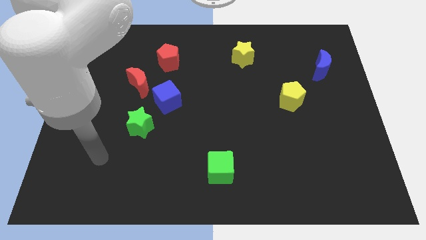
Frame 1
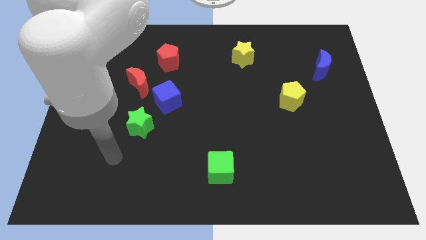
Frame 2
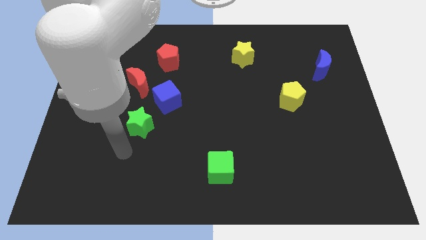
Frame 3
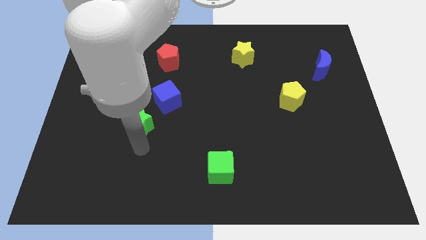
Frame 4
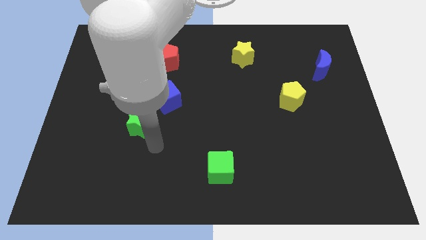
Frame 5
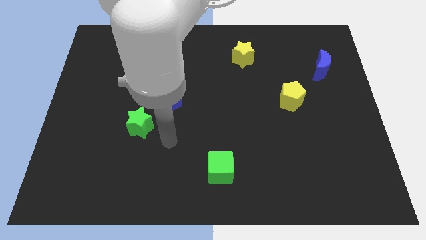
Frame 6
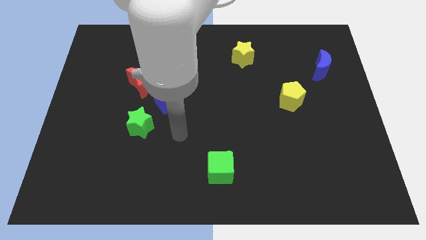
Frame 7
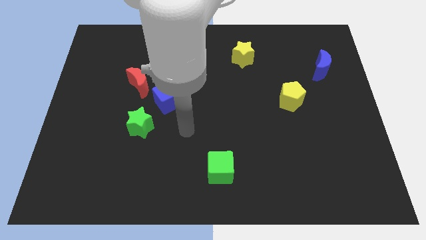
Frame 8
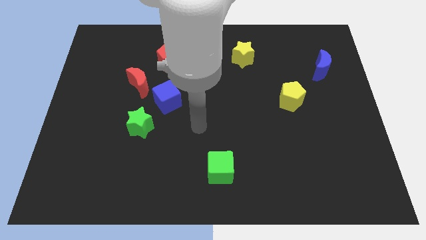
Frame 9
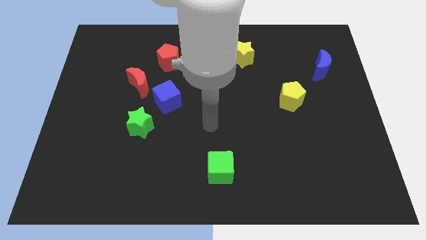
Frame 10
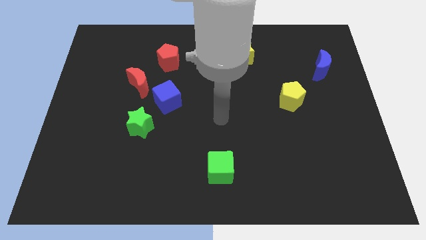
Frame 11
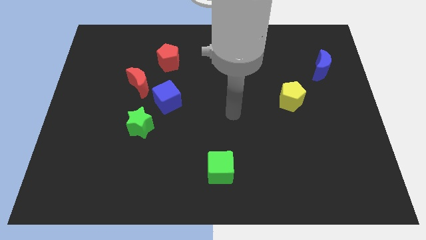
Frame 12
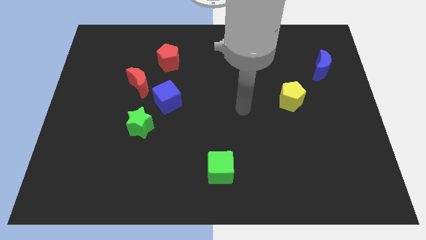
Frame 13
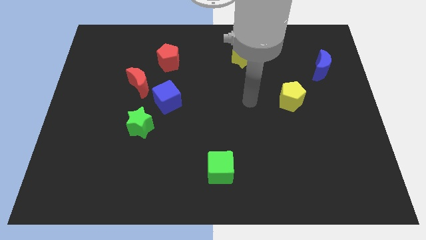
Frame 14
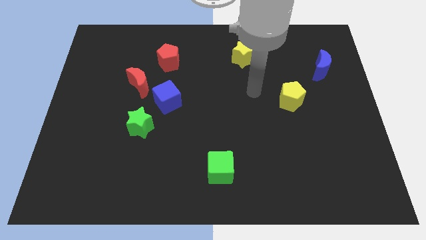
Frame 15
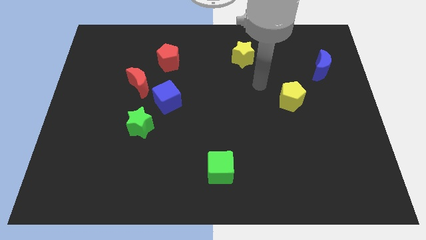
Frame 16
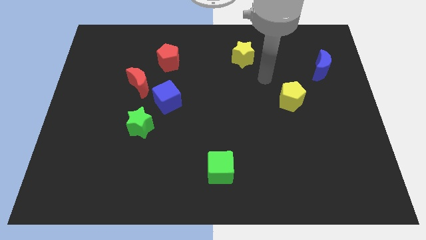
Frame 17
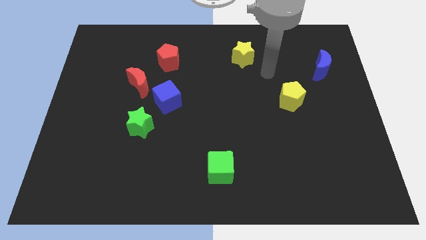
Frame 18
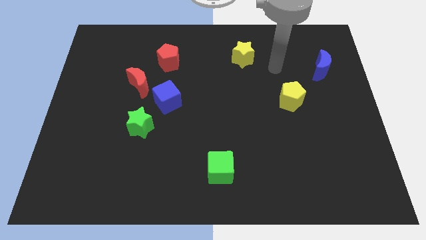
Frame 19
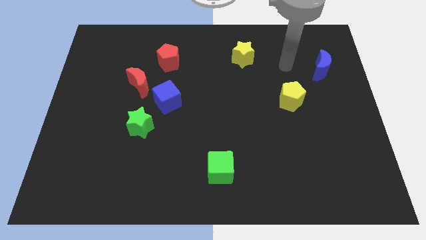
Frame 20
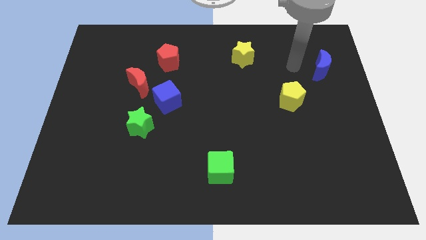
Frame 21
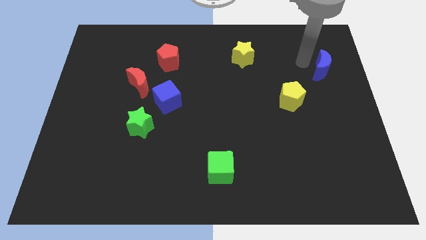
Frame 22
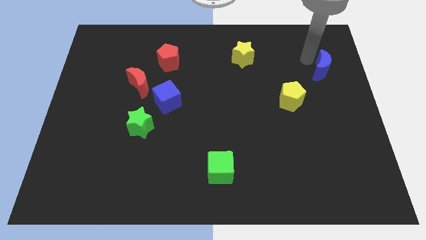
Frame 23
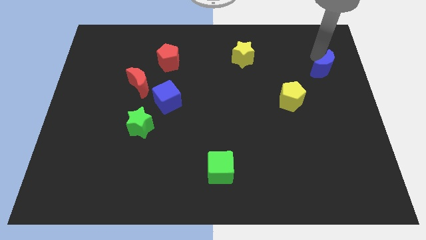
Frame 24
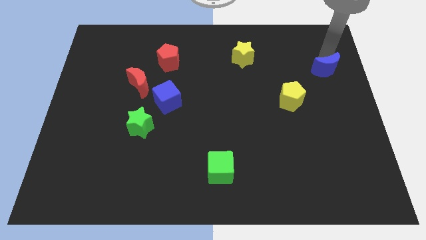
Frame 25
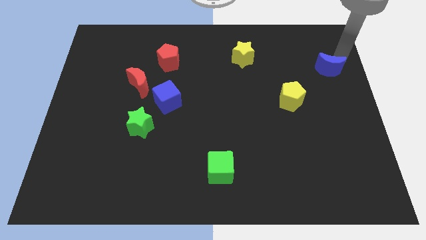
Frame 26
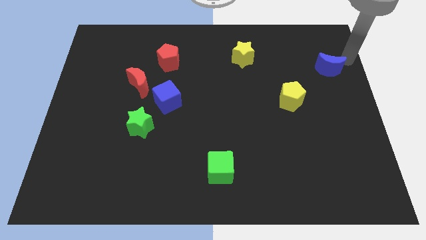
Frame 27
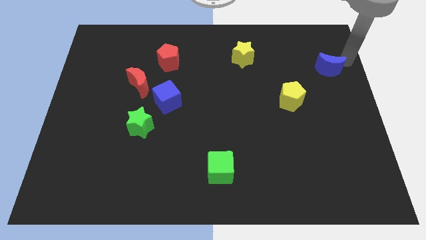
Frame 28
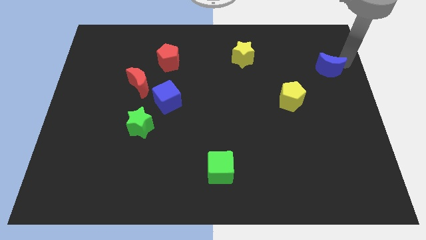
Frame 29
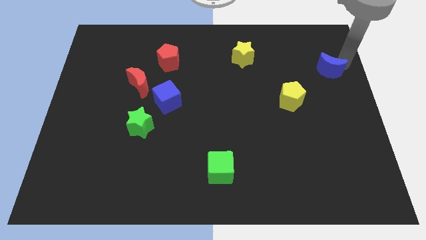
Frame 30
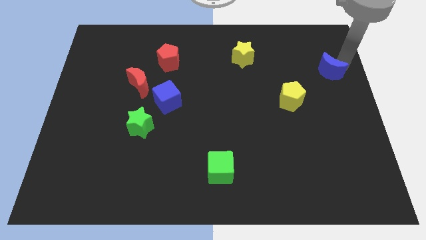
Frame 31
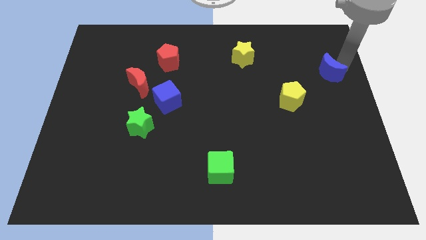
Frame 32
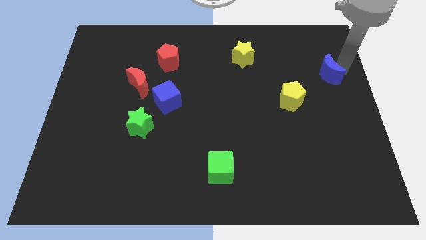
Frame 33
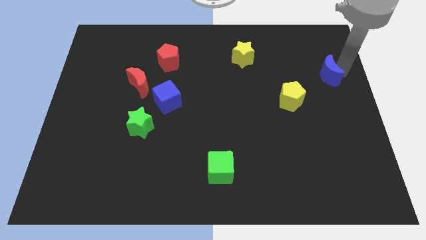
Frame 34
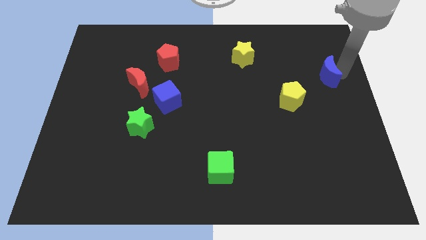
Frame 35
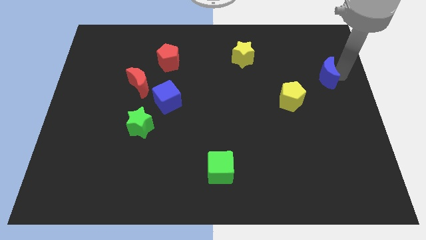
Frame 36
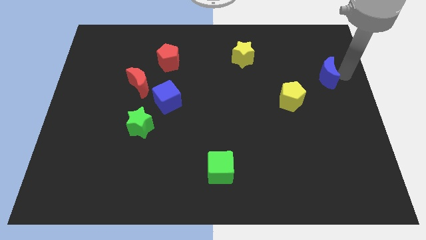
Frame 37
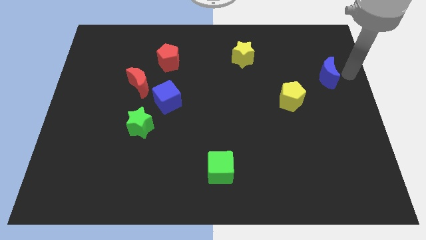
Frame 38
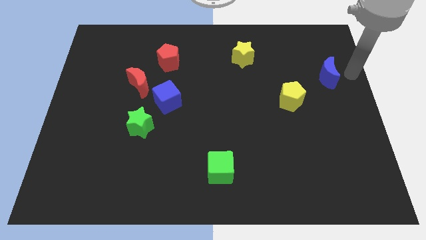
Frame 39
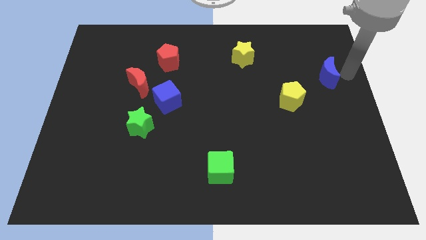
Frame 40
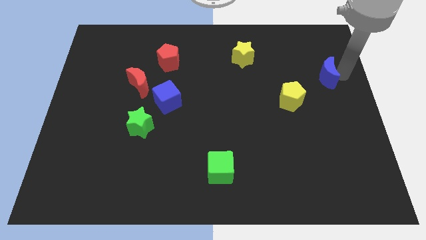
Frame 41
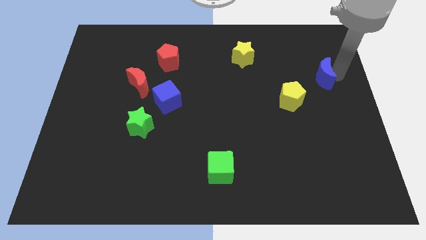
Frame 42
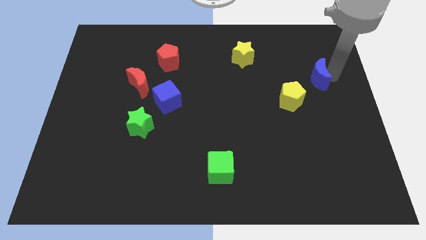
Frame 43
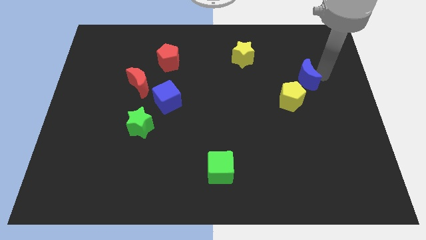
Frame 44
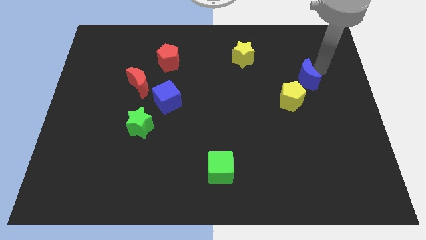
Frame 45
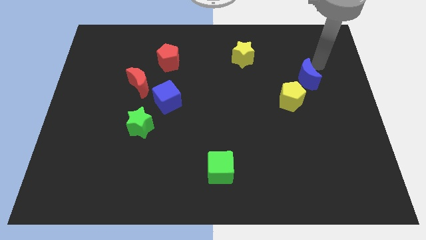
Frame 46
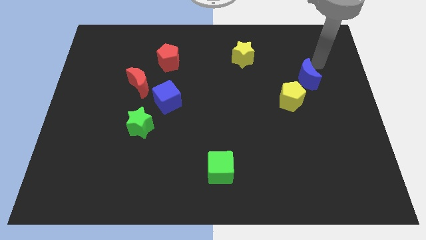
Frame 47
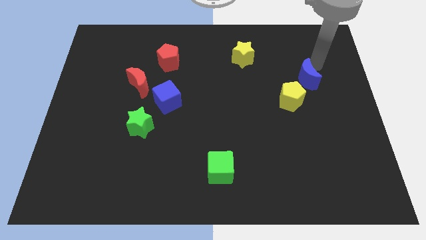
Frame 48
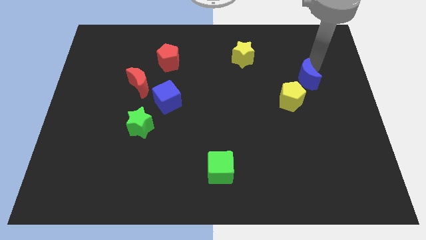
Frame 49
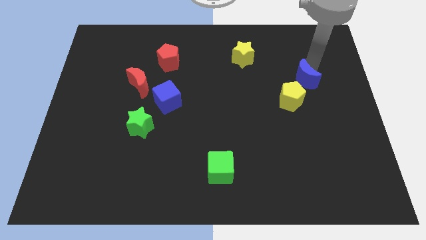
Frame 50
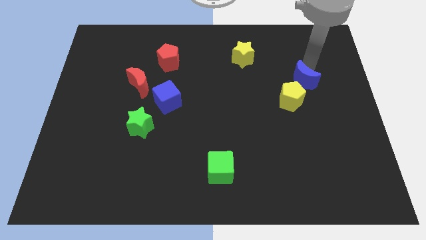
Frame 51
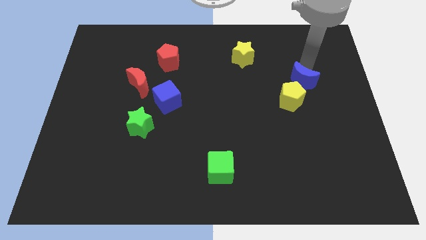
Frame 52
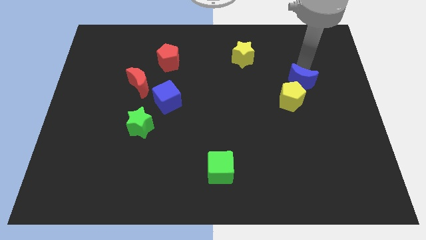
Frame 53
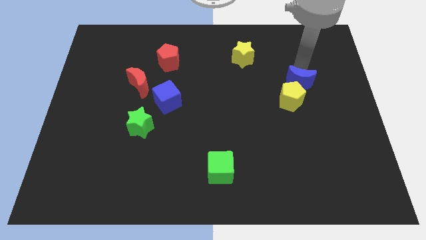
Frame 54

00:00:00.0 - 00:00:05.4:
push the blue moon to the yellow pentagon

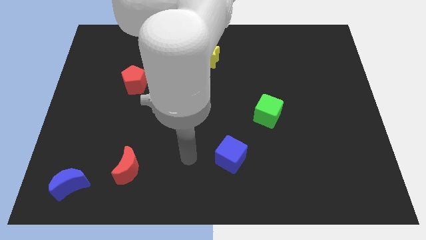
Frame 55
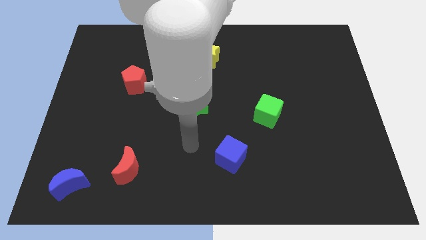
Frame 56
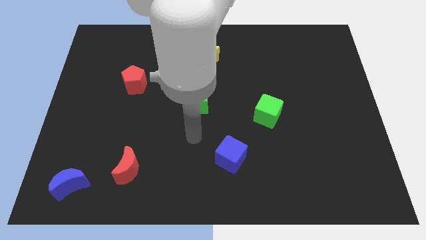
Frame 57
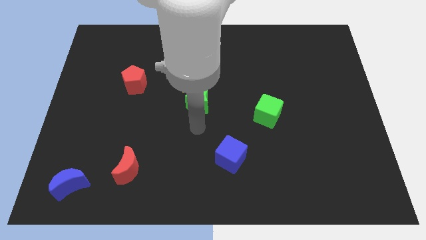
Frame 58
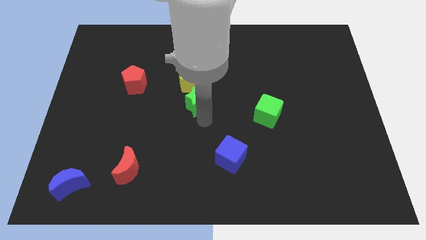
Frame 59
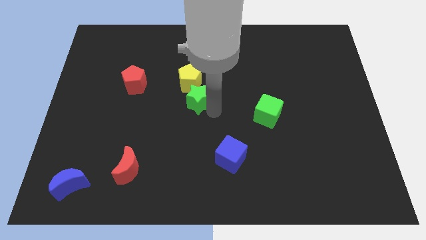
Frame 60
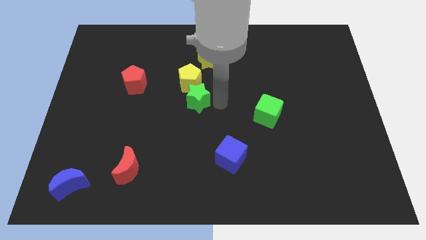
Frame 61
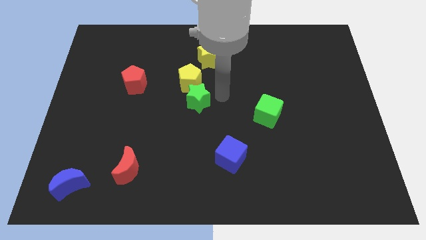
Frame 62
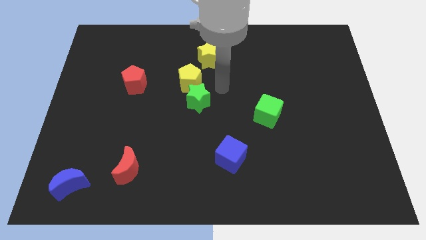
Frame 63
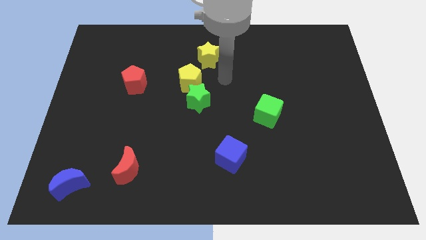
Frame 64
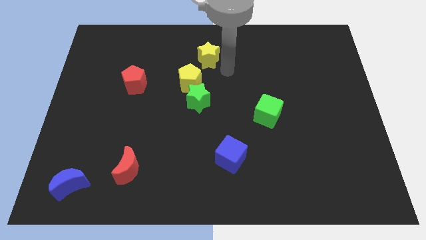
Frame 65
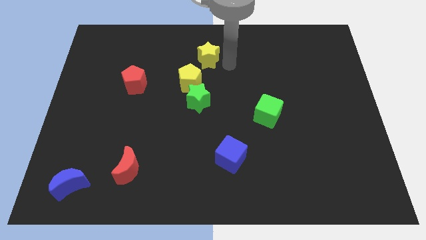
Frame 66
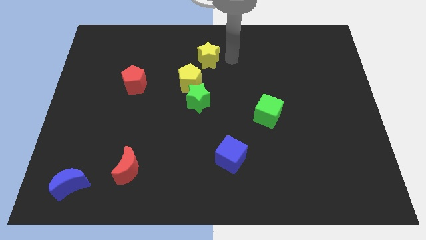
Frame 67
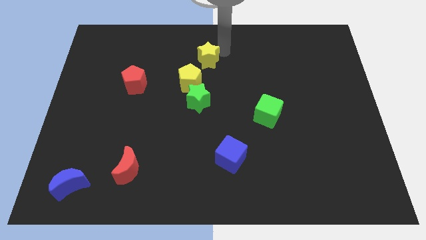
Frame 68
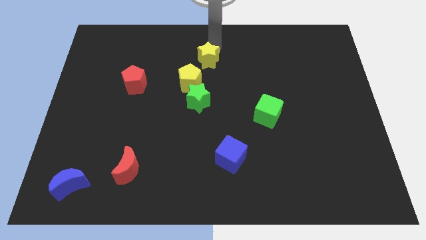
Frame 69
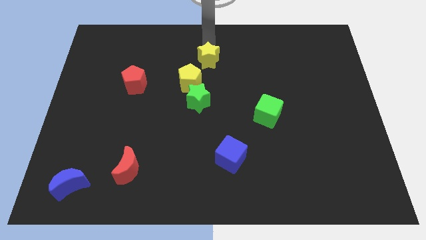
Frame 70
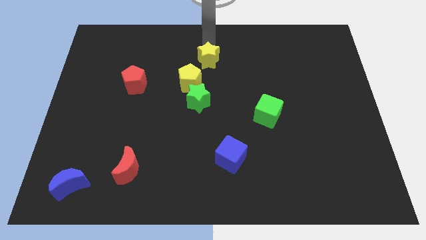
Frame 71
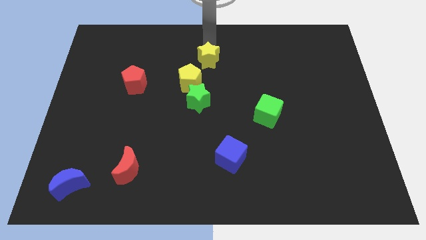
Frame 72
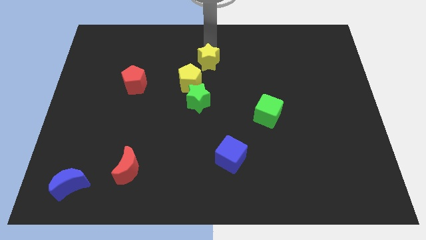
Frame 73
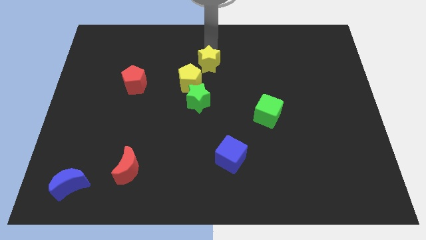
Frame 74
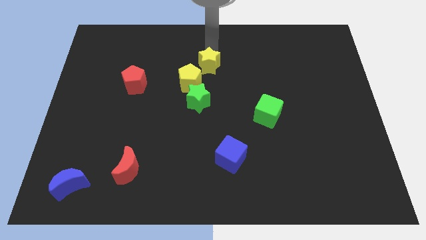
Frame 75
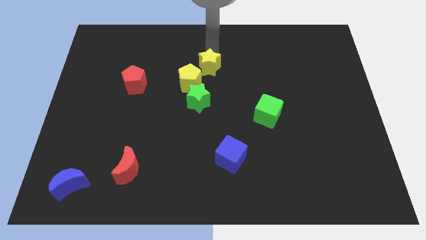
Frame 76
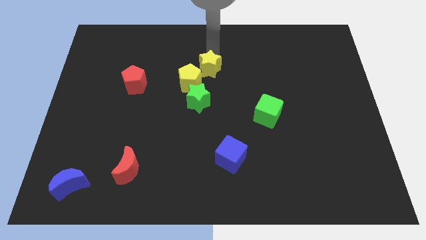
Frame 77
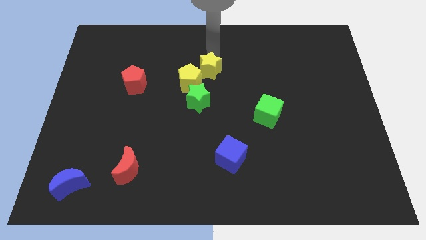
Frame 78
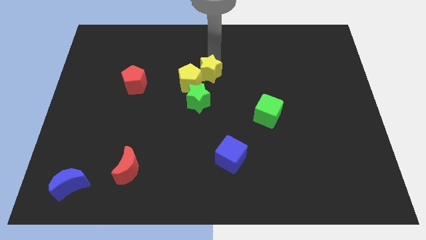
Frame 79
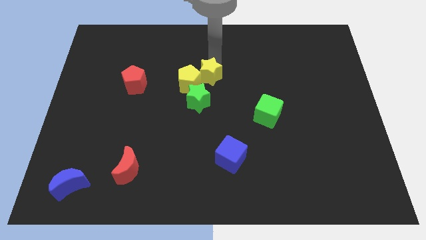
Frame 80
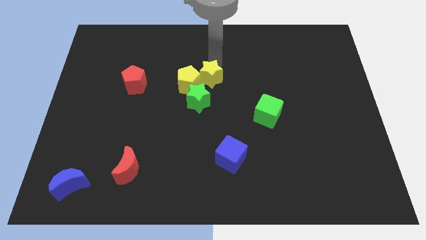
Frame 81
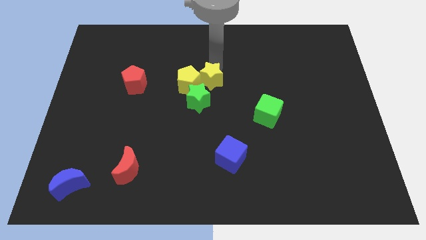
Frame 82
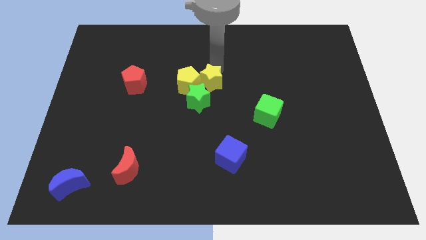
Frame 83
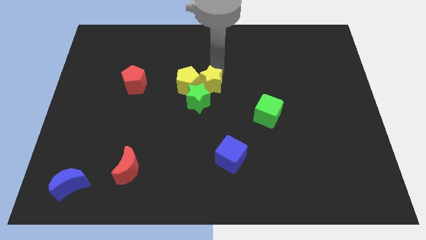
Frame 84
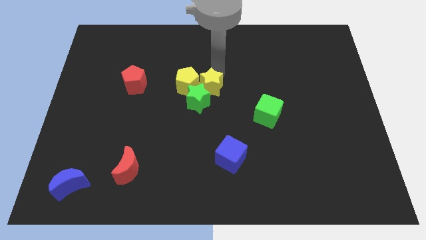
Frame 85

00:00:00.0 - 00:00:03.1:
move the yellow star to the green star
